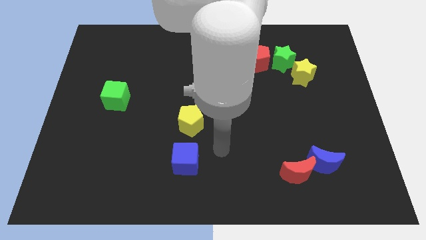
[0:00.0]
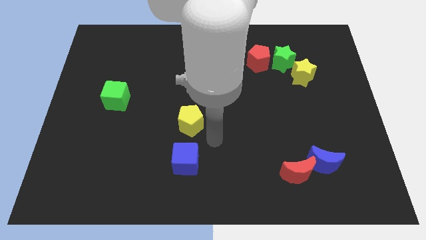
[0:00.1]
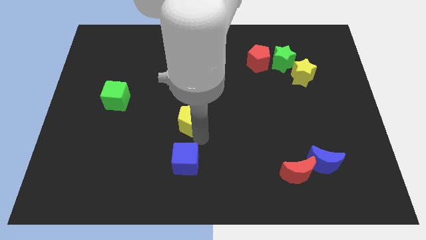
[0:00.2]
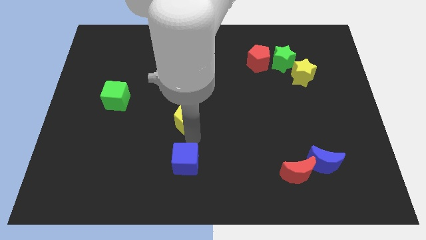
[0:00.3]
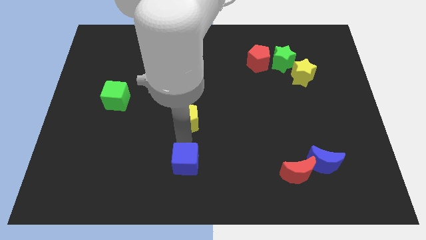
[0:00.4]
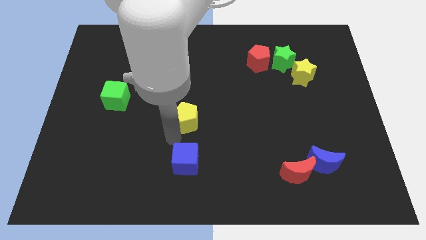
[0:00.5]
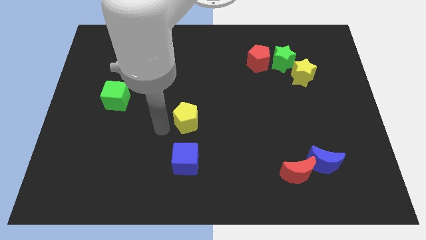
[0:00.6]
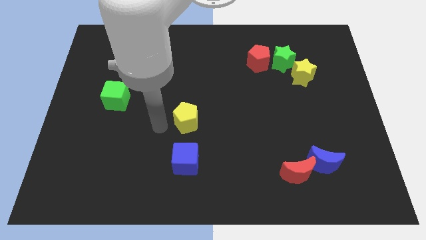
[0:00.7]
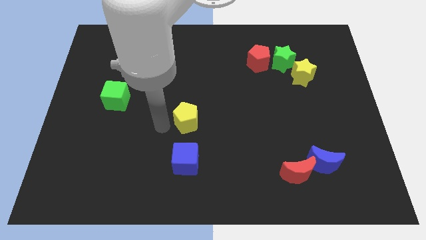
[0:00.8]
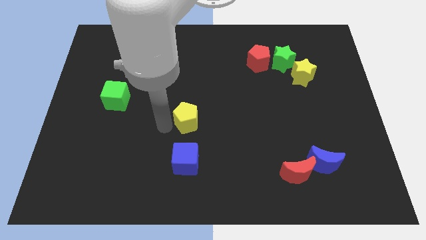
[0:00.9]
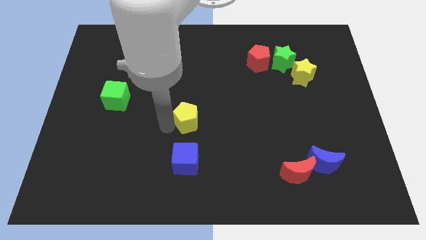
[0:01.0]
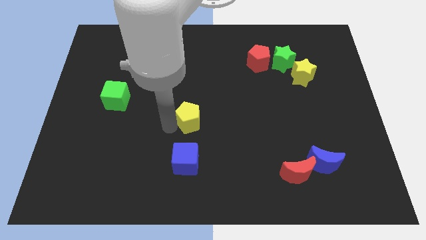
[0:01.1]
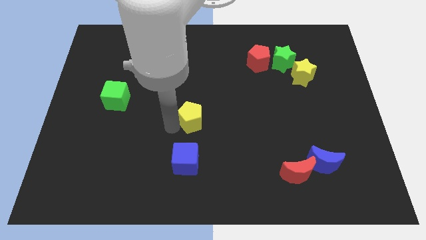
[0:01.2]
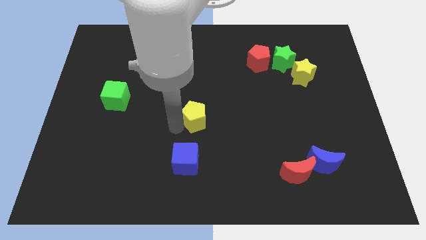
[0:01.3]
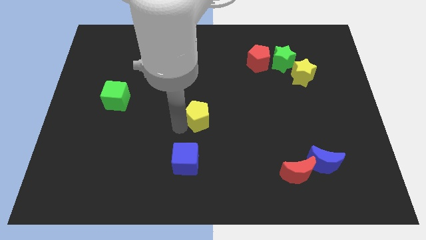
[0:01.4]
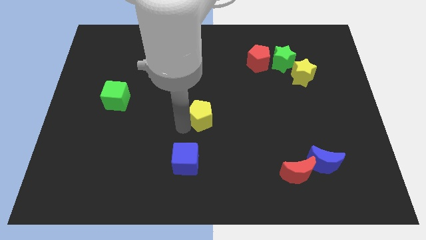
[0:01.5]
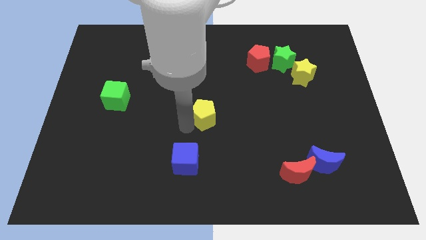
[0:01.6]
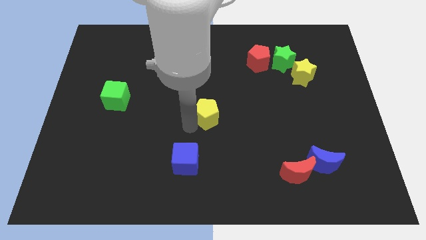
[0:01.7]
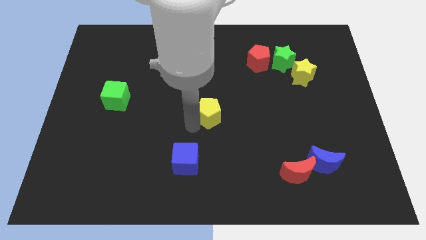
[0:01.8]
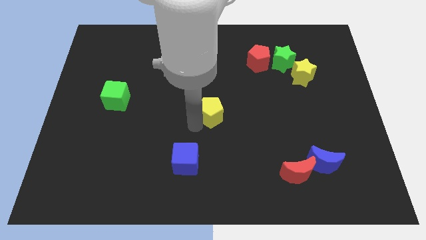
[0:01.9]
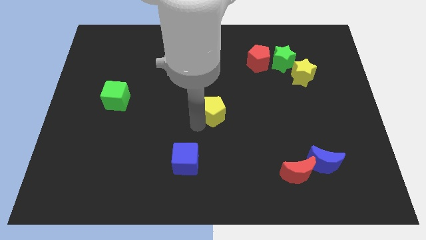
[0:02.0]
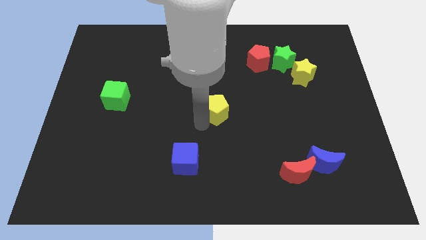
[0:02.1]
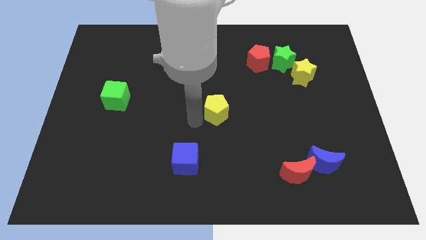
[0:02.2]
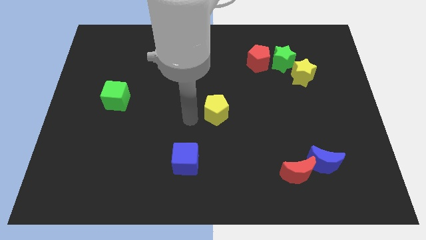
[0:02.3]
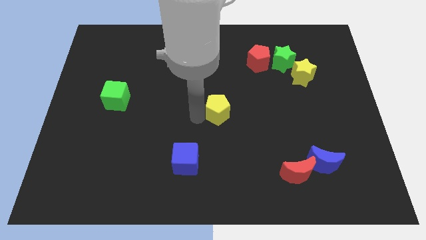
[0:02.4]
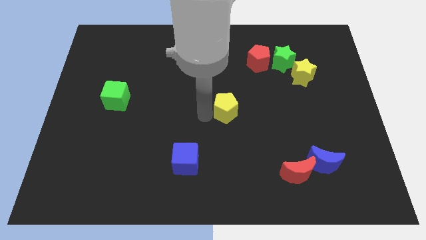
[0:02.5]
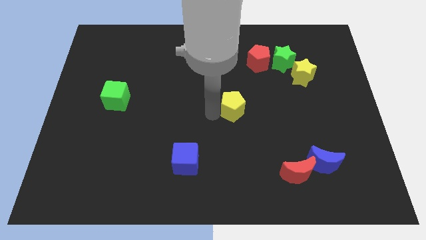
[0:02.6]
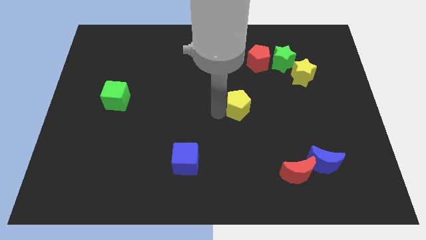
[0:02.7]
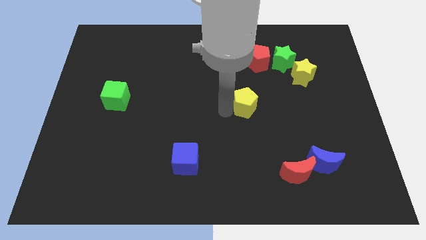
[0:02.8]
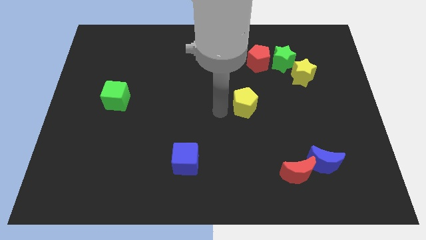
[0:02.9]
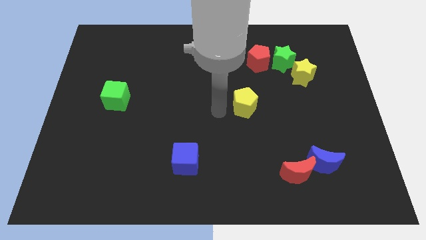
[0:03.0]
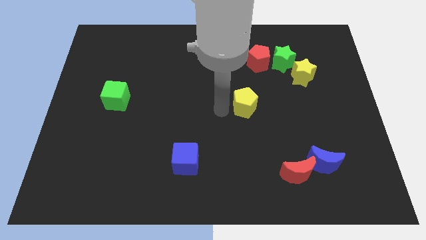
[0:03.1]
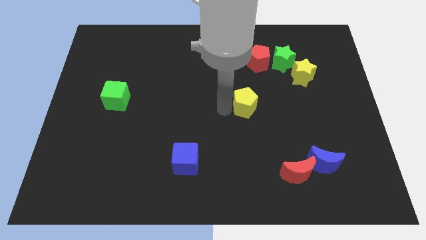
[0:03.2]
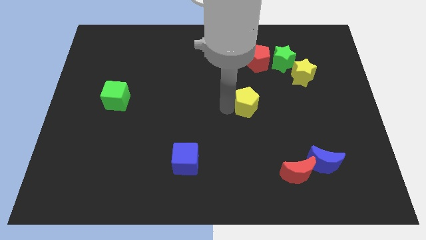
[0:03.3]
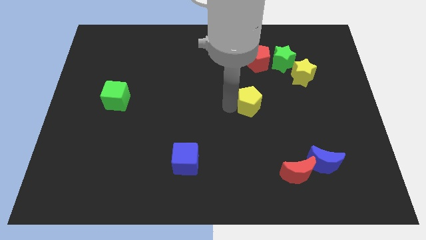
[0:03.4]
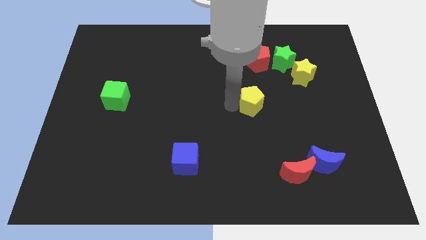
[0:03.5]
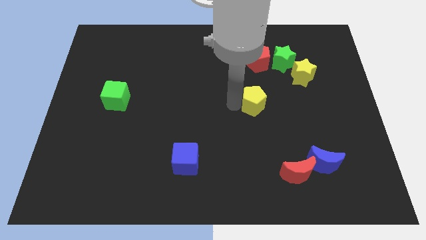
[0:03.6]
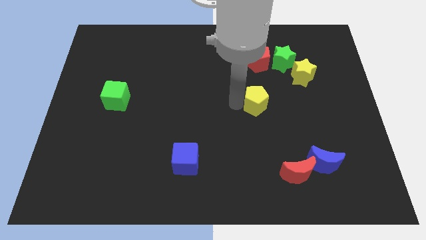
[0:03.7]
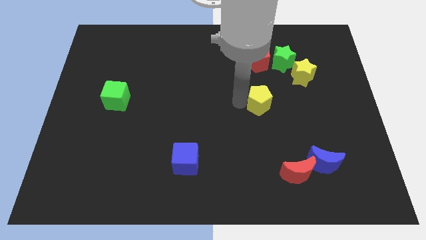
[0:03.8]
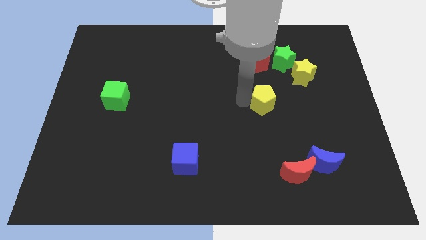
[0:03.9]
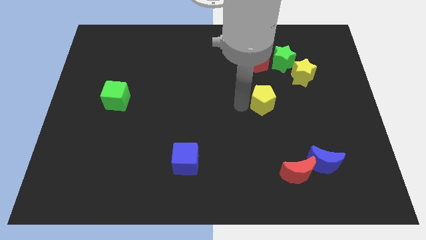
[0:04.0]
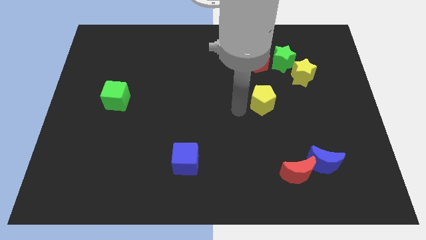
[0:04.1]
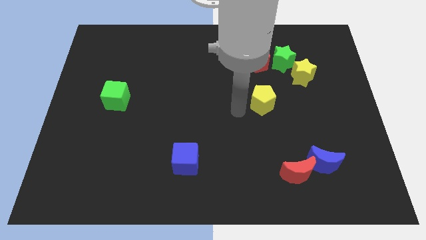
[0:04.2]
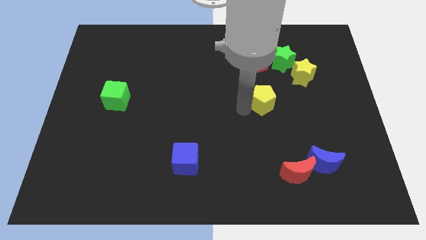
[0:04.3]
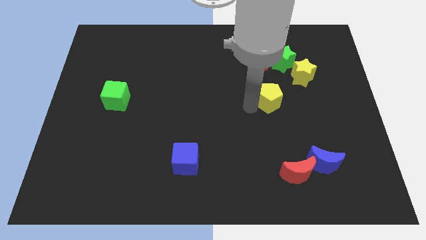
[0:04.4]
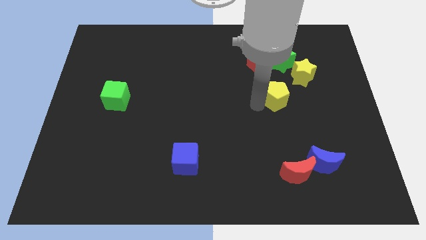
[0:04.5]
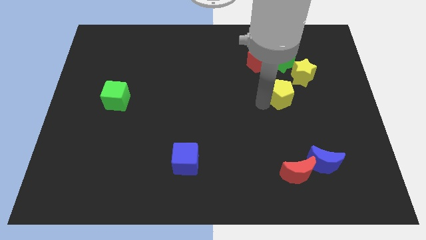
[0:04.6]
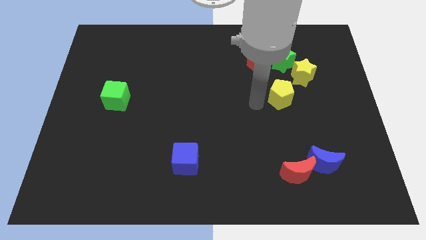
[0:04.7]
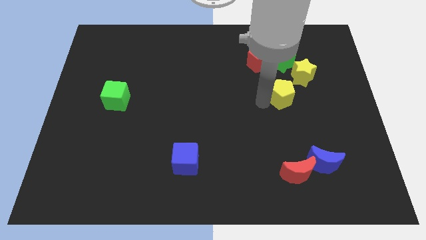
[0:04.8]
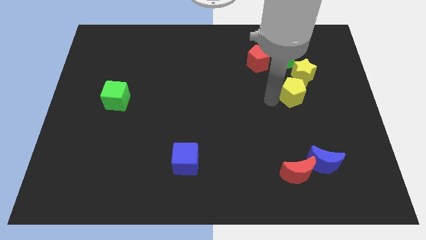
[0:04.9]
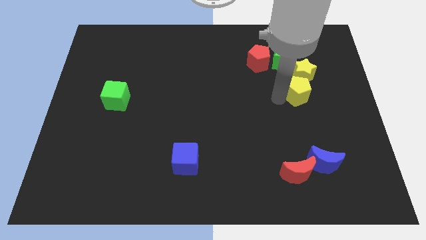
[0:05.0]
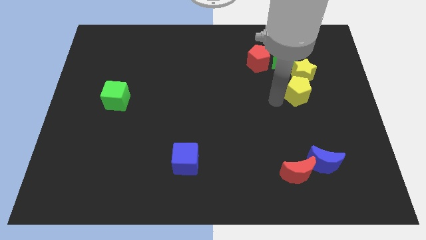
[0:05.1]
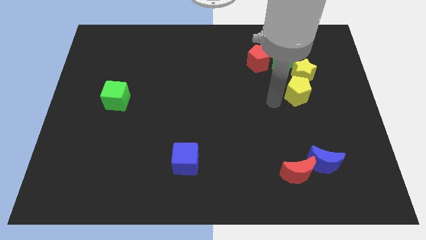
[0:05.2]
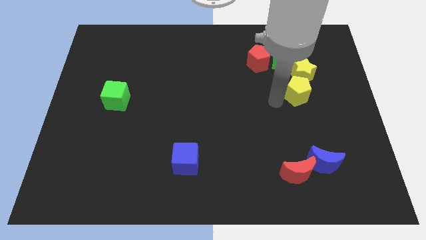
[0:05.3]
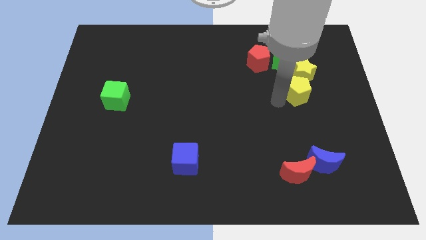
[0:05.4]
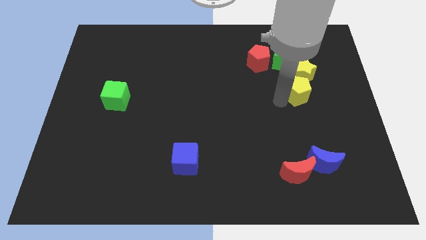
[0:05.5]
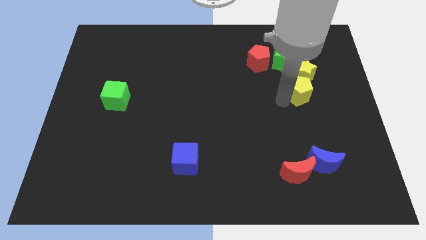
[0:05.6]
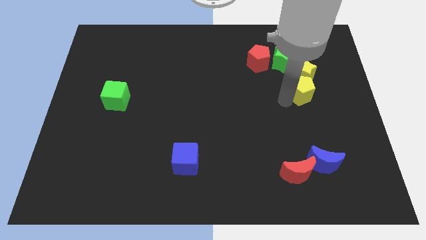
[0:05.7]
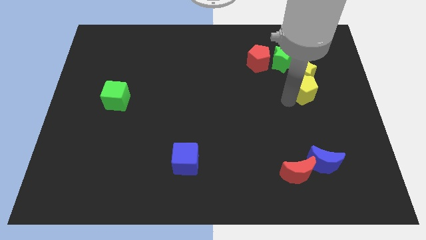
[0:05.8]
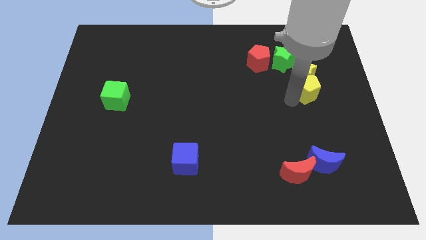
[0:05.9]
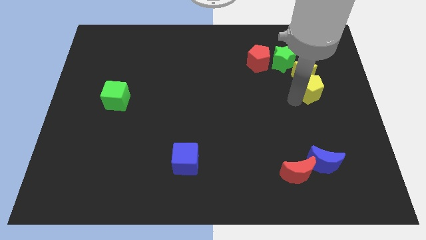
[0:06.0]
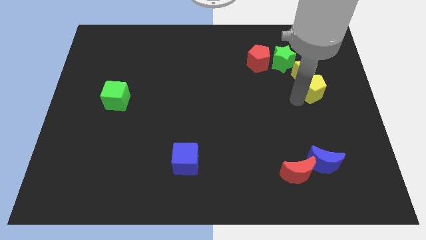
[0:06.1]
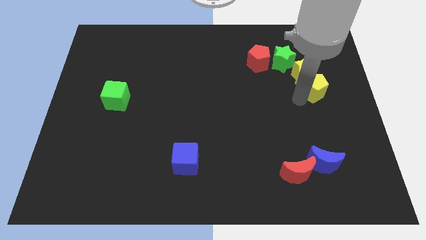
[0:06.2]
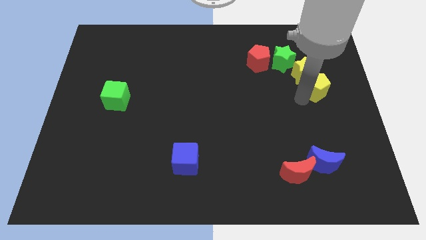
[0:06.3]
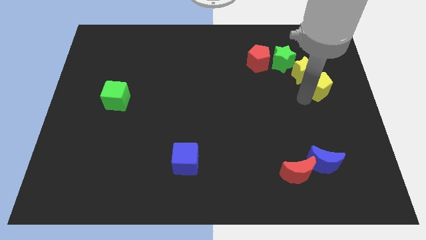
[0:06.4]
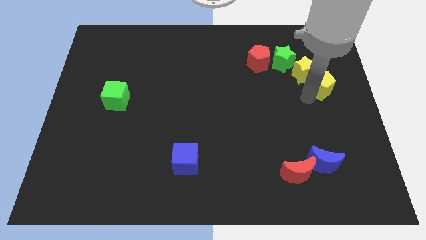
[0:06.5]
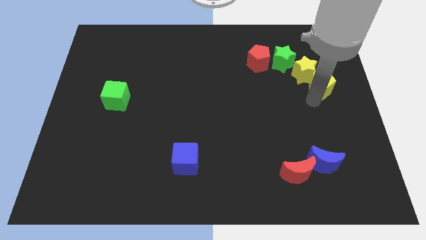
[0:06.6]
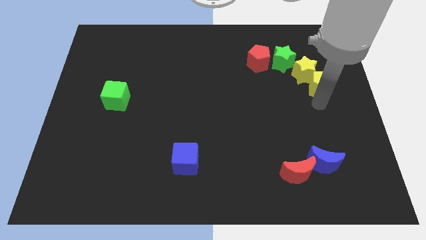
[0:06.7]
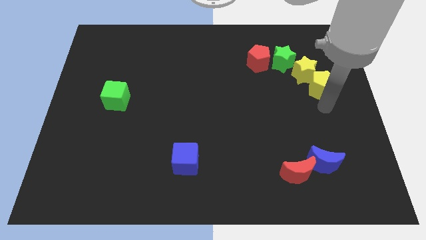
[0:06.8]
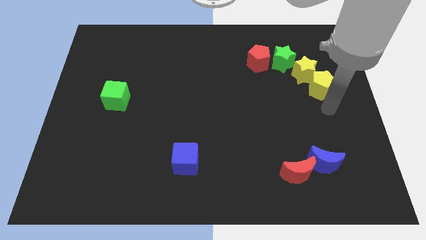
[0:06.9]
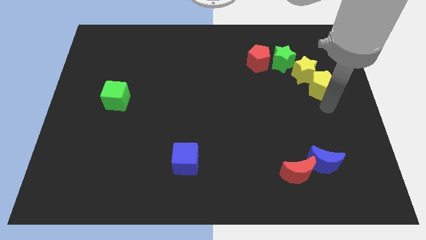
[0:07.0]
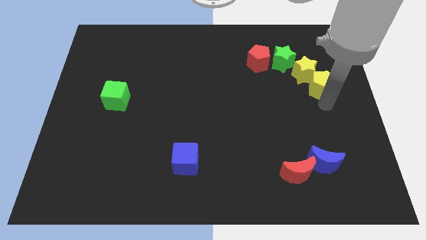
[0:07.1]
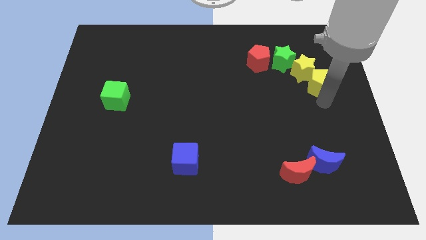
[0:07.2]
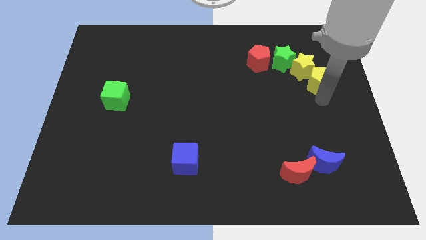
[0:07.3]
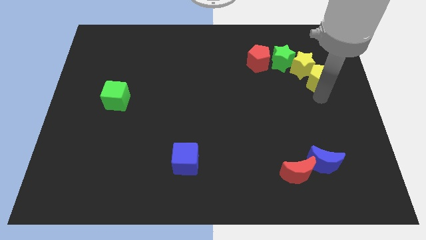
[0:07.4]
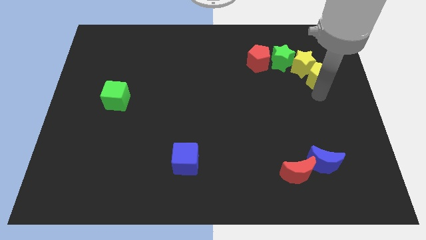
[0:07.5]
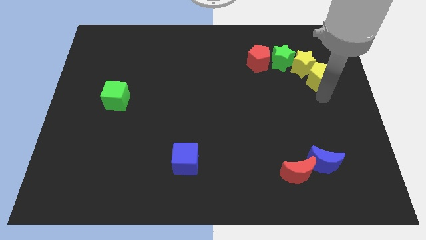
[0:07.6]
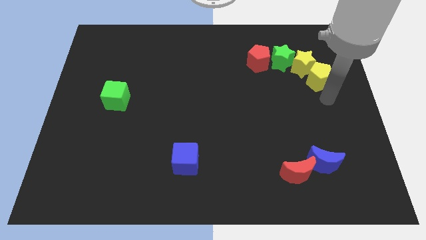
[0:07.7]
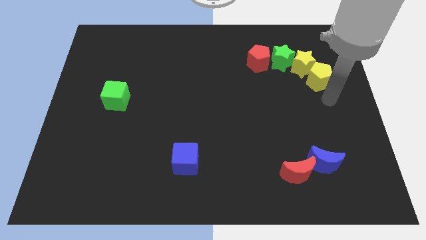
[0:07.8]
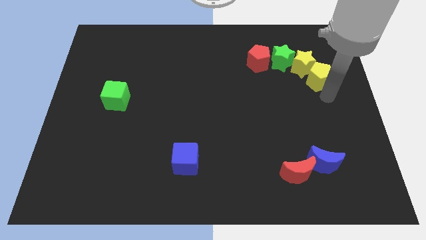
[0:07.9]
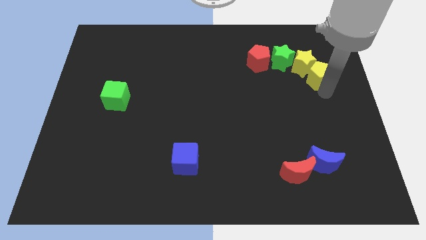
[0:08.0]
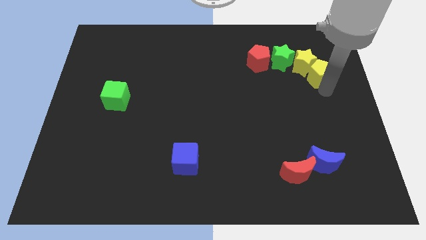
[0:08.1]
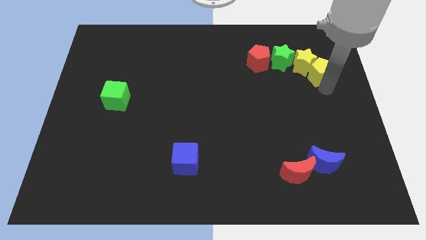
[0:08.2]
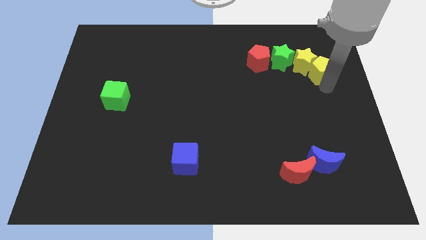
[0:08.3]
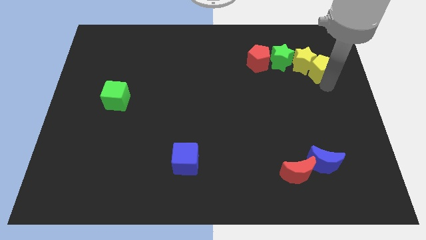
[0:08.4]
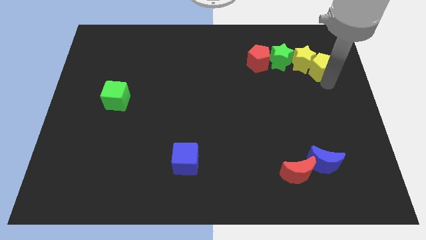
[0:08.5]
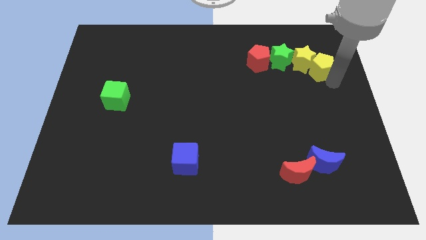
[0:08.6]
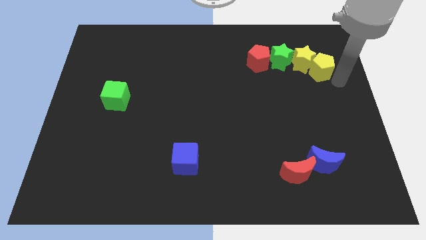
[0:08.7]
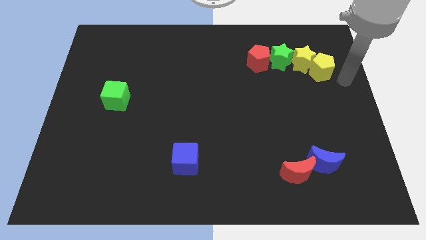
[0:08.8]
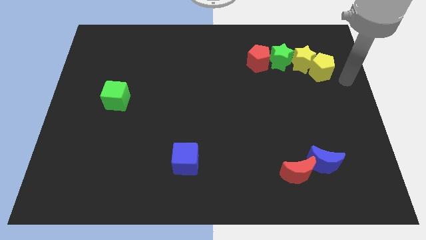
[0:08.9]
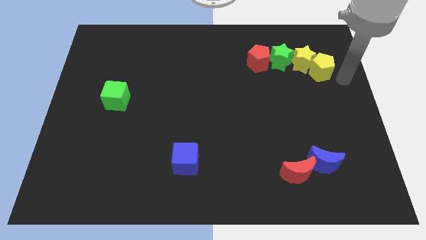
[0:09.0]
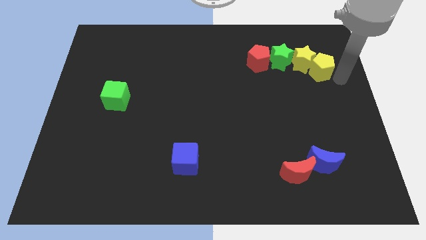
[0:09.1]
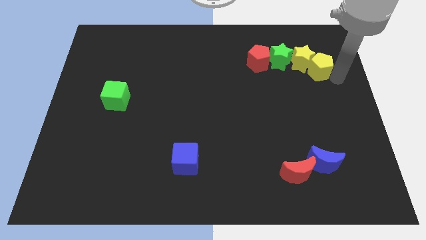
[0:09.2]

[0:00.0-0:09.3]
put the yellow pentagon to the right side of the red pentagon
